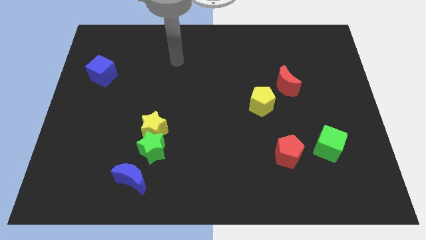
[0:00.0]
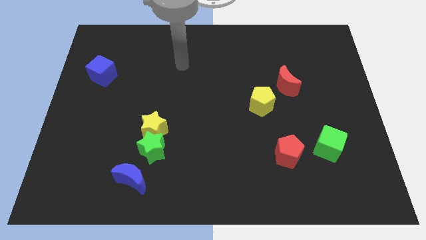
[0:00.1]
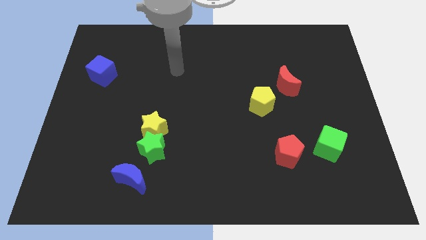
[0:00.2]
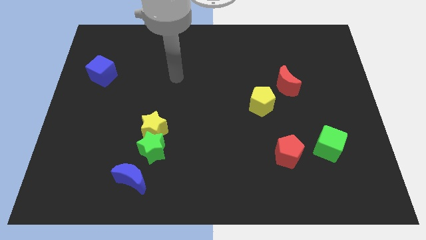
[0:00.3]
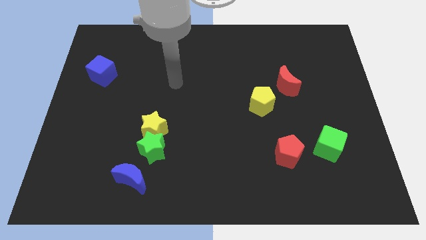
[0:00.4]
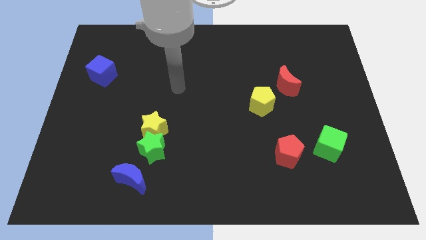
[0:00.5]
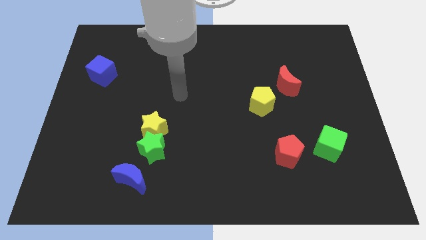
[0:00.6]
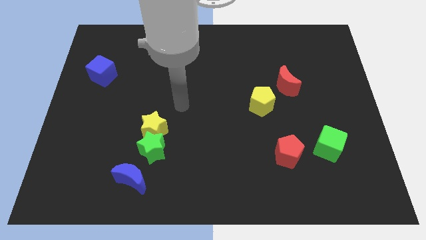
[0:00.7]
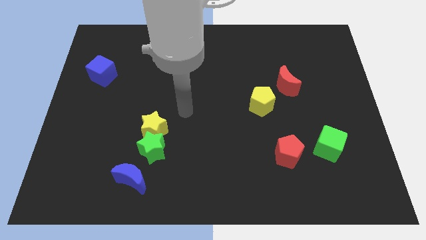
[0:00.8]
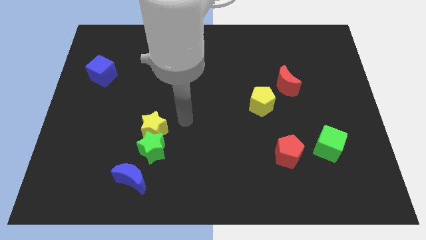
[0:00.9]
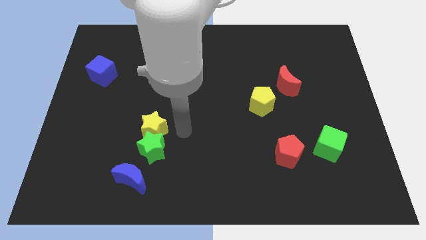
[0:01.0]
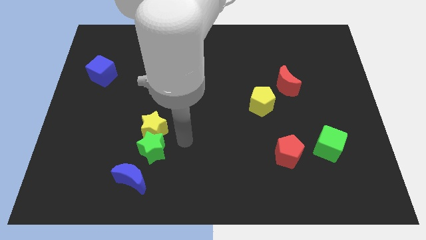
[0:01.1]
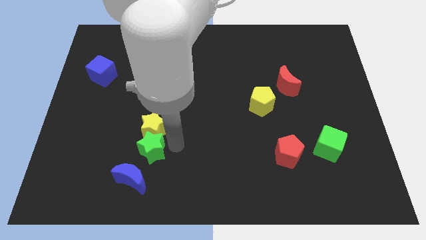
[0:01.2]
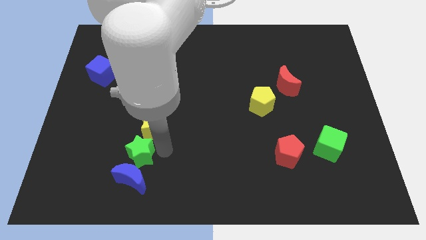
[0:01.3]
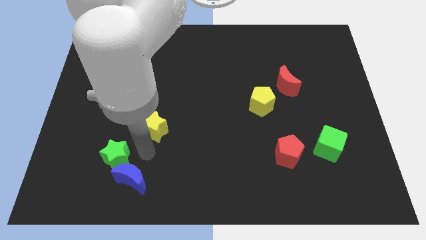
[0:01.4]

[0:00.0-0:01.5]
move the yellow star away from the green star

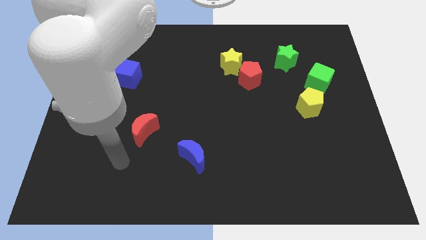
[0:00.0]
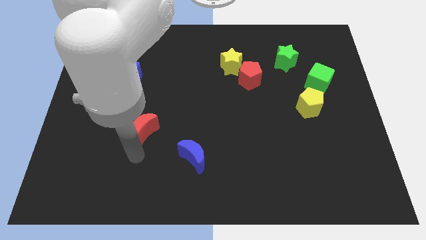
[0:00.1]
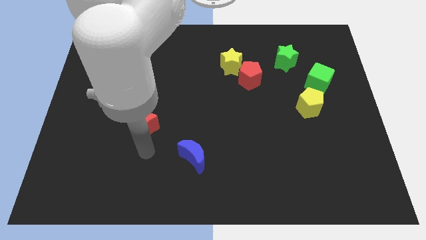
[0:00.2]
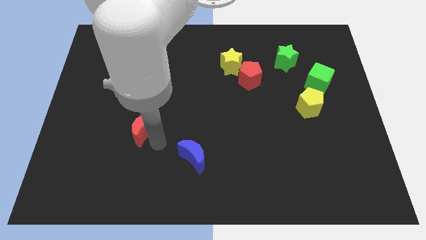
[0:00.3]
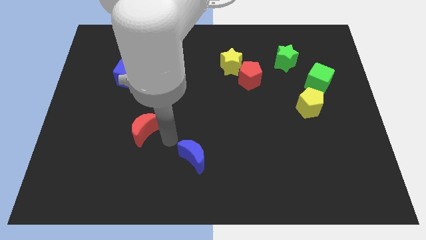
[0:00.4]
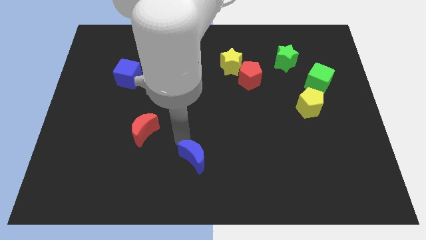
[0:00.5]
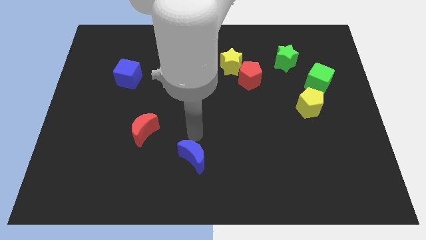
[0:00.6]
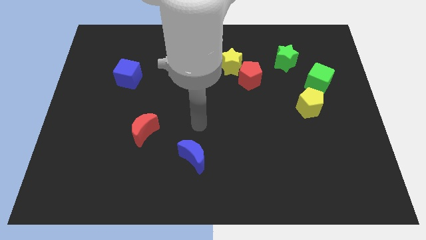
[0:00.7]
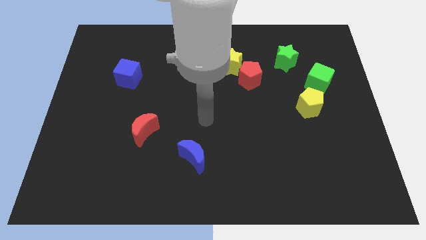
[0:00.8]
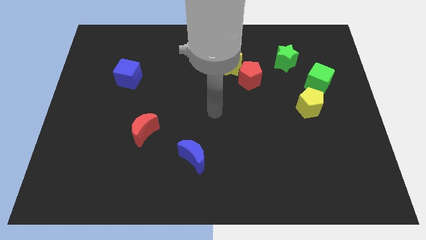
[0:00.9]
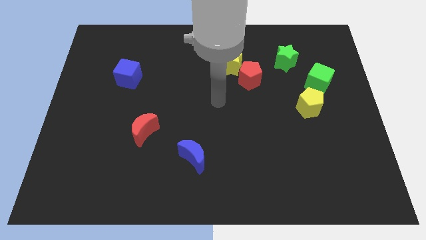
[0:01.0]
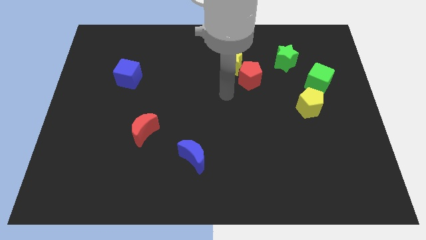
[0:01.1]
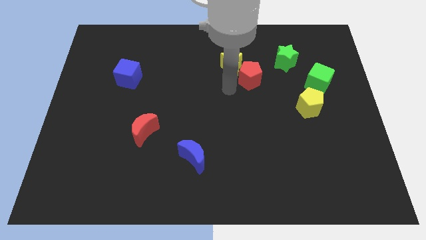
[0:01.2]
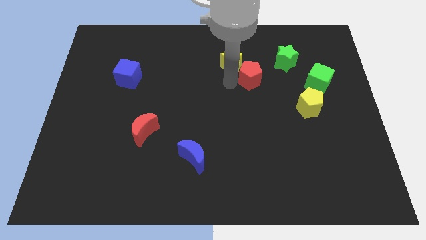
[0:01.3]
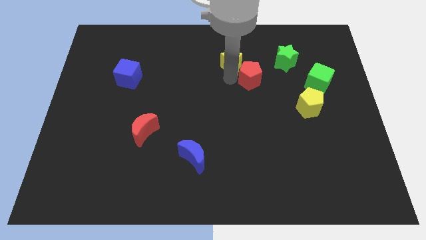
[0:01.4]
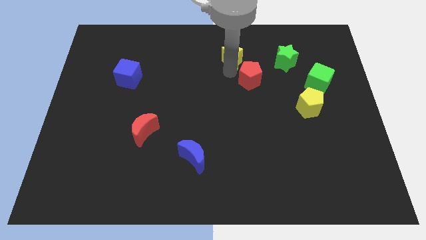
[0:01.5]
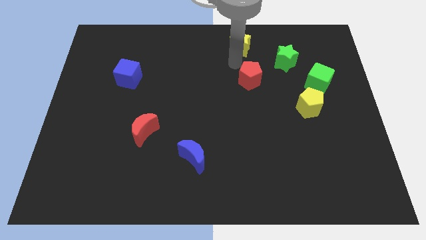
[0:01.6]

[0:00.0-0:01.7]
separate the red pentagon from the yellow star

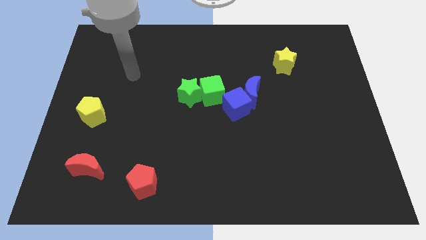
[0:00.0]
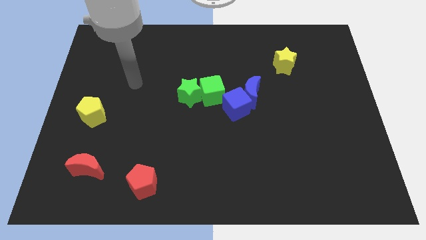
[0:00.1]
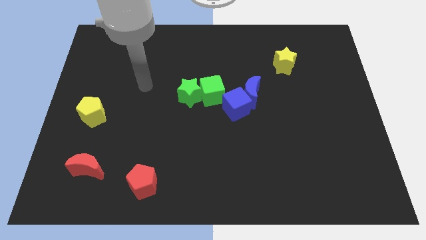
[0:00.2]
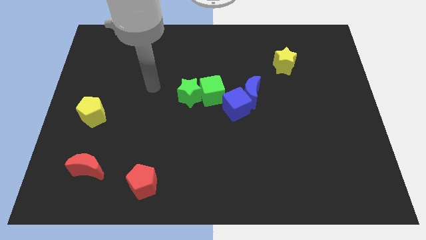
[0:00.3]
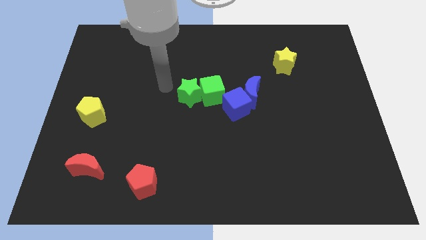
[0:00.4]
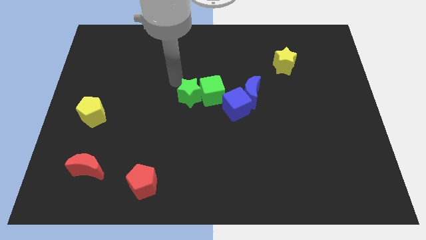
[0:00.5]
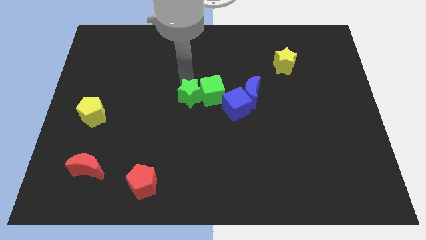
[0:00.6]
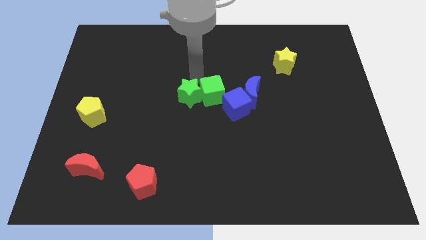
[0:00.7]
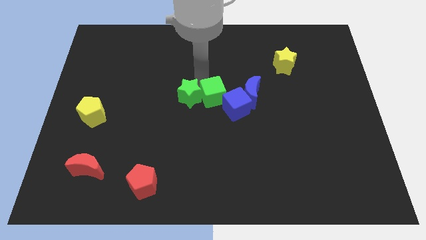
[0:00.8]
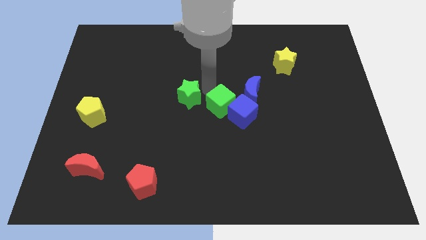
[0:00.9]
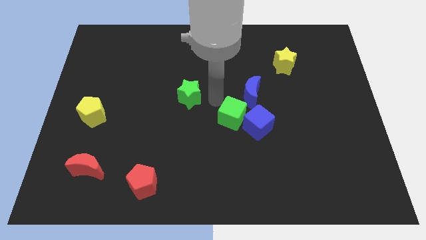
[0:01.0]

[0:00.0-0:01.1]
pull the green star apart from the green cube

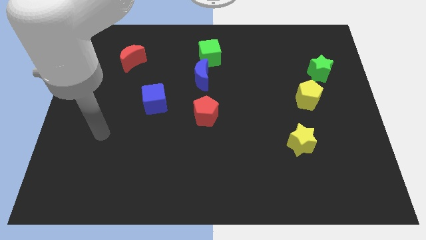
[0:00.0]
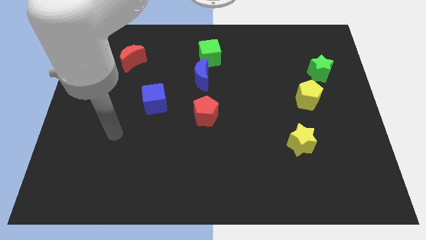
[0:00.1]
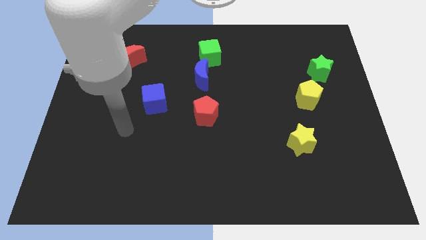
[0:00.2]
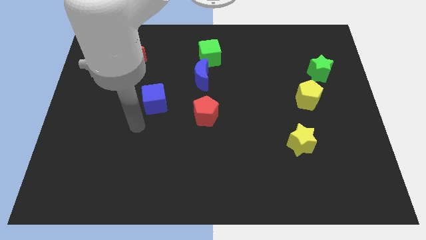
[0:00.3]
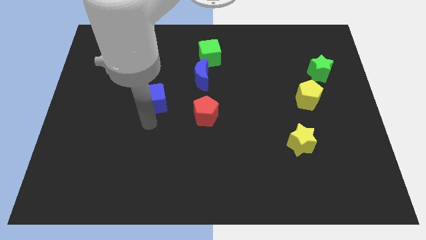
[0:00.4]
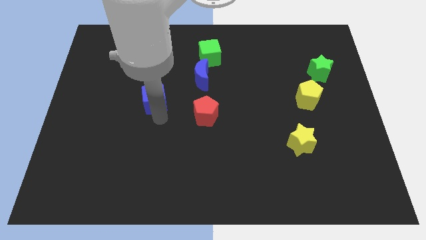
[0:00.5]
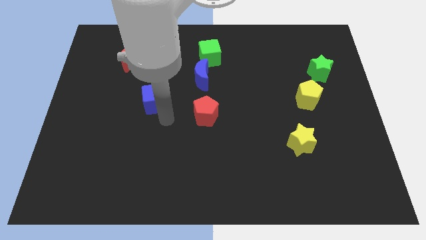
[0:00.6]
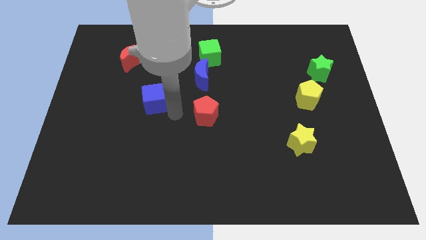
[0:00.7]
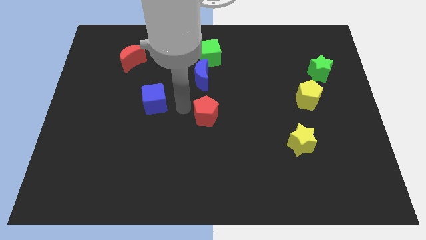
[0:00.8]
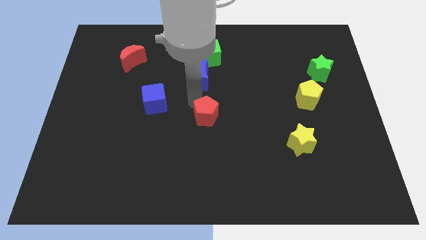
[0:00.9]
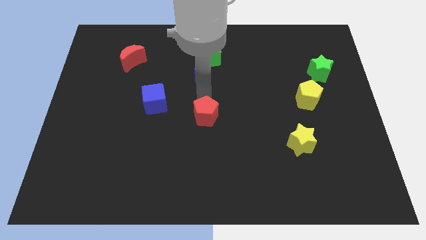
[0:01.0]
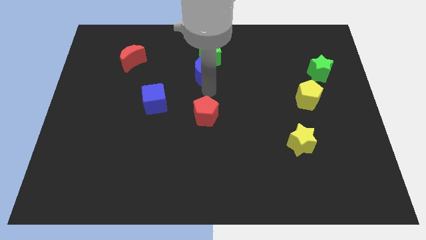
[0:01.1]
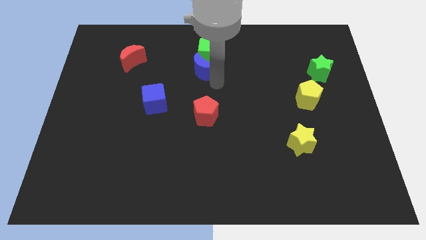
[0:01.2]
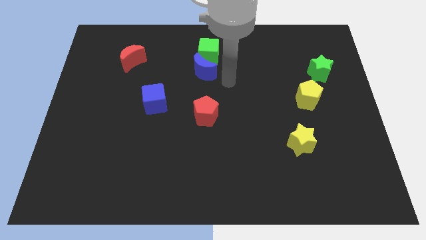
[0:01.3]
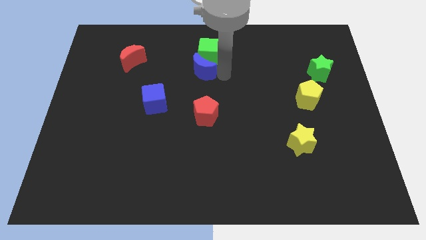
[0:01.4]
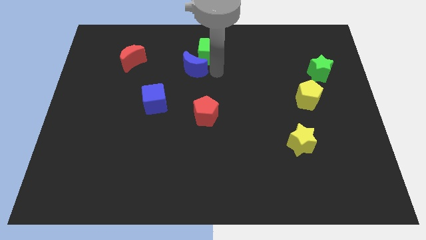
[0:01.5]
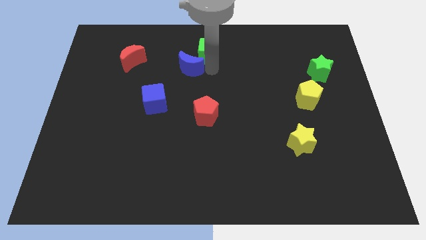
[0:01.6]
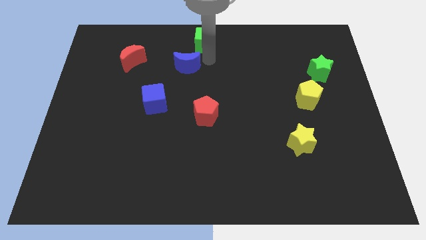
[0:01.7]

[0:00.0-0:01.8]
pull the blue moon apart from the green cube

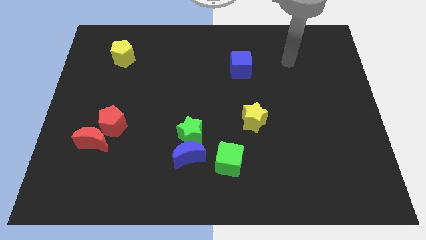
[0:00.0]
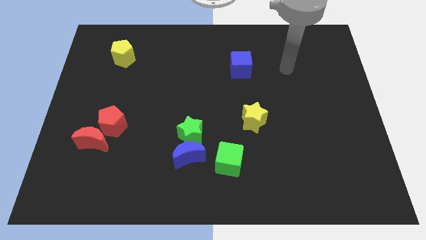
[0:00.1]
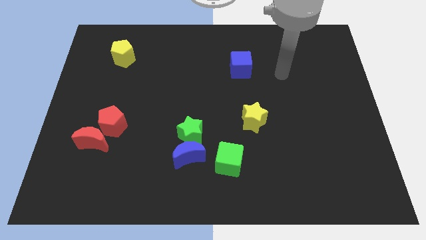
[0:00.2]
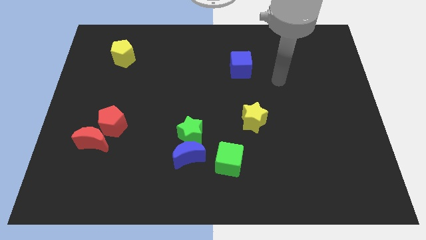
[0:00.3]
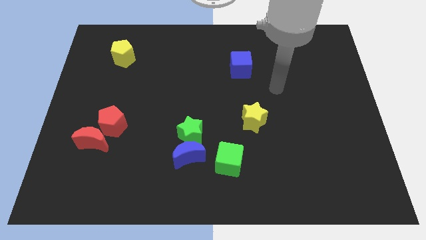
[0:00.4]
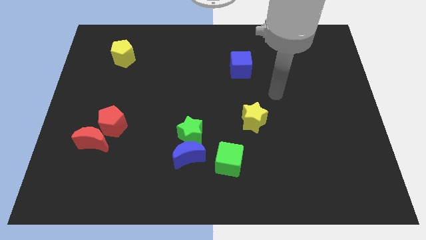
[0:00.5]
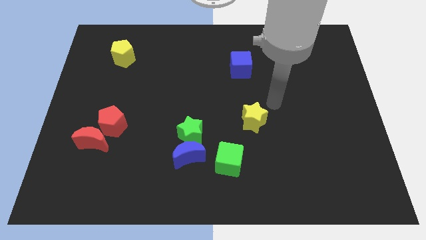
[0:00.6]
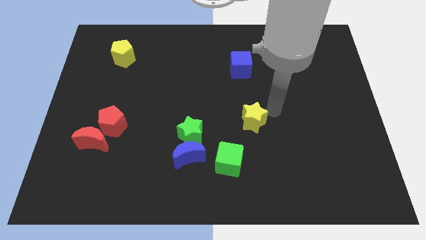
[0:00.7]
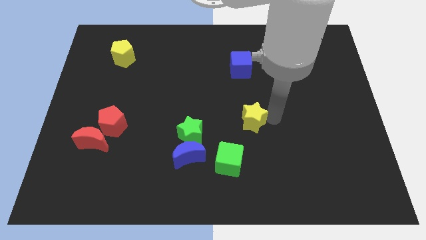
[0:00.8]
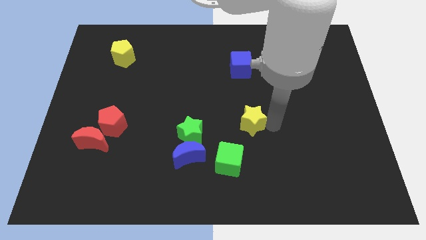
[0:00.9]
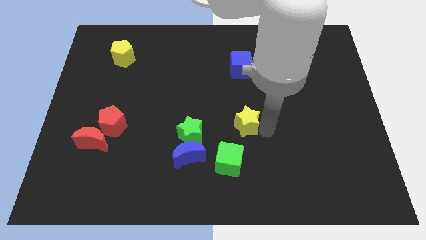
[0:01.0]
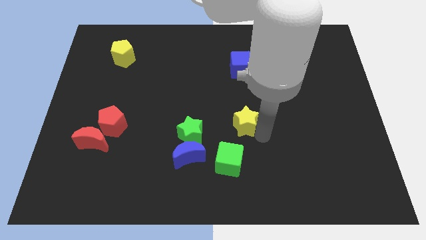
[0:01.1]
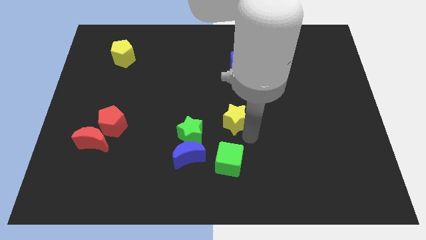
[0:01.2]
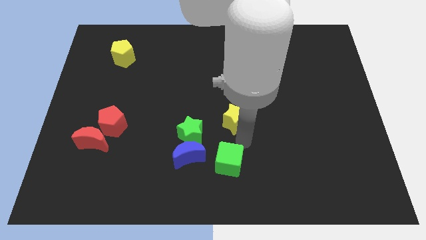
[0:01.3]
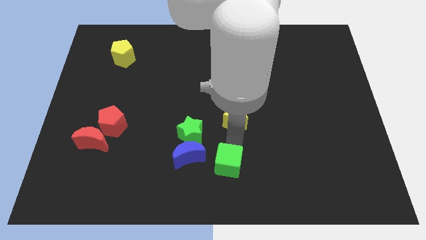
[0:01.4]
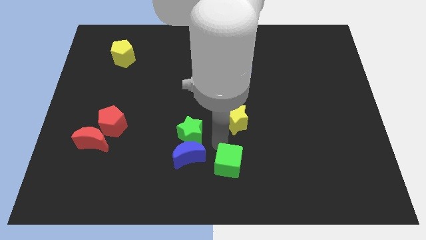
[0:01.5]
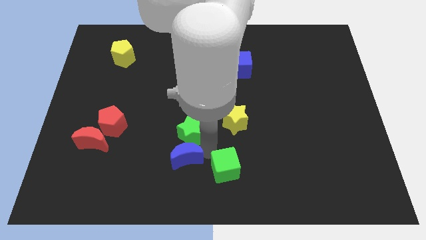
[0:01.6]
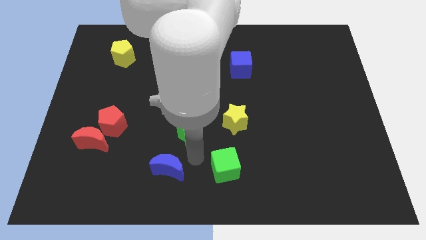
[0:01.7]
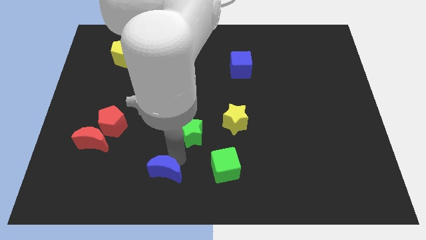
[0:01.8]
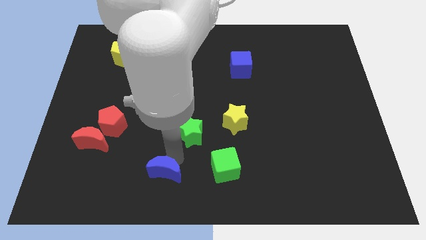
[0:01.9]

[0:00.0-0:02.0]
separate the green star from the blue moon

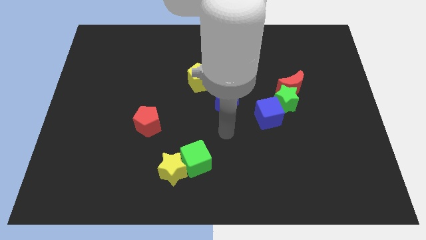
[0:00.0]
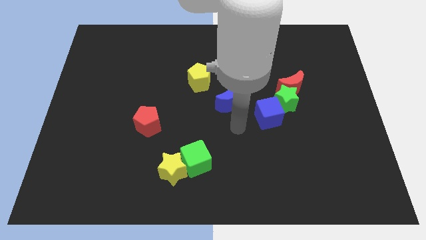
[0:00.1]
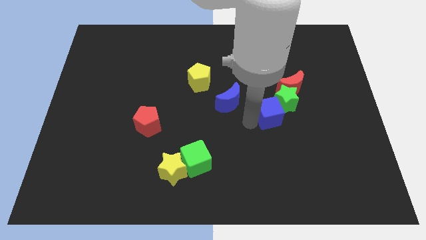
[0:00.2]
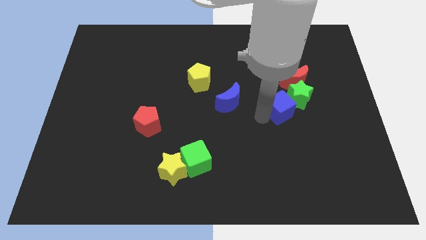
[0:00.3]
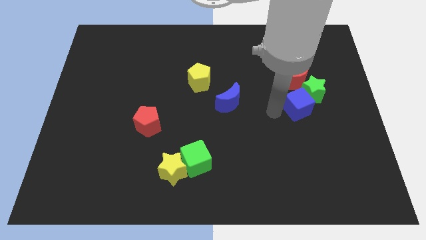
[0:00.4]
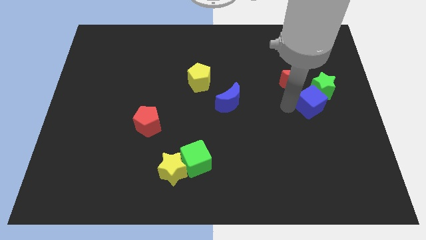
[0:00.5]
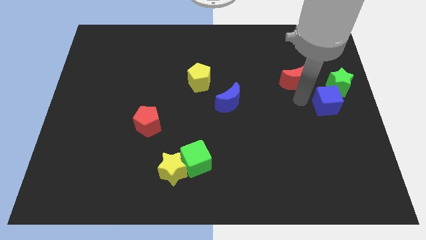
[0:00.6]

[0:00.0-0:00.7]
pull the red moon apart from the green star

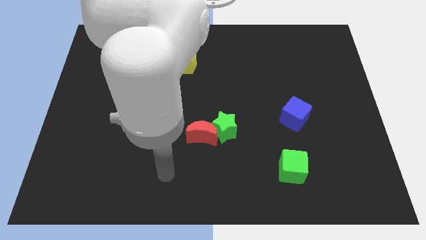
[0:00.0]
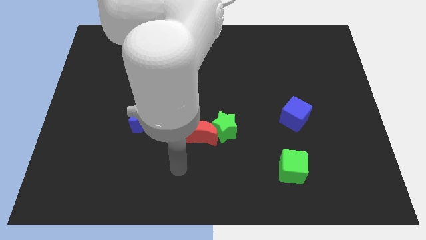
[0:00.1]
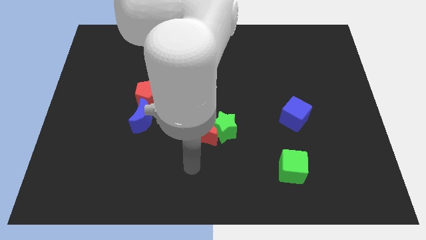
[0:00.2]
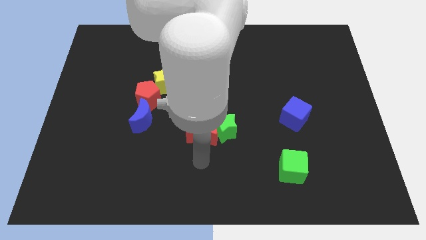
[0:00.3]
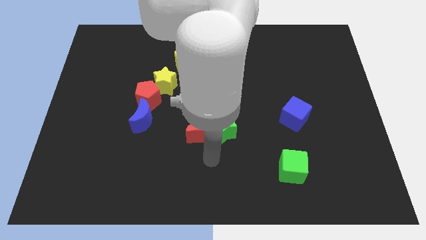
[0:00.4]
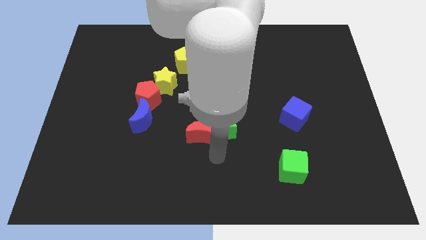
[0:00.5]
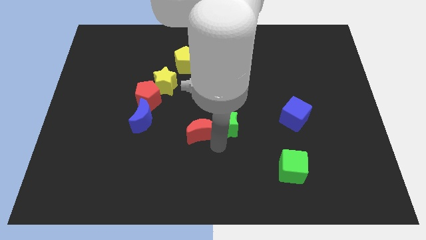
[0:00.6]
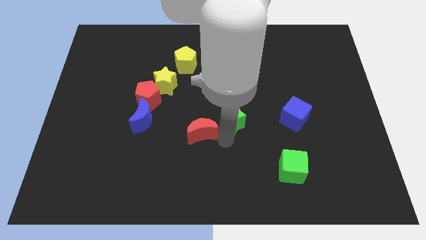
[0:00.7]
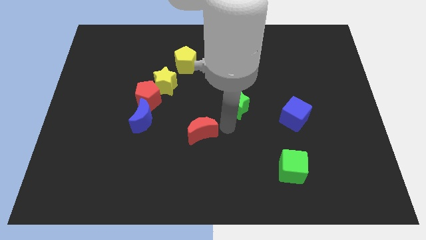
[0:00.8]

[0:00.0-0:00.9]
separate the red moon from the green star
